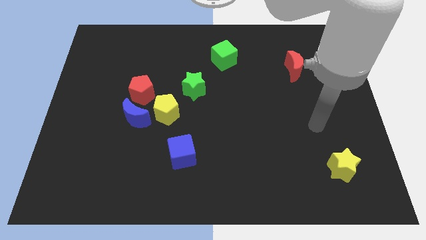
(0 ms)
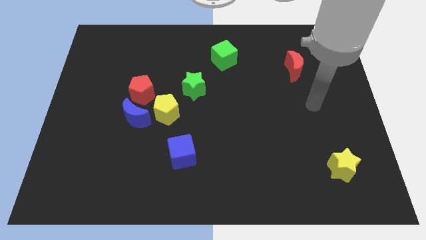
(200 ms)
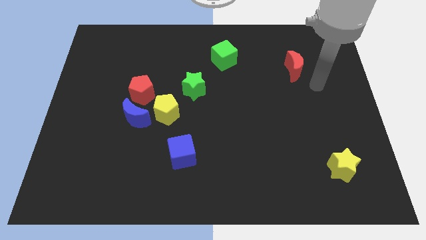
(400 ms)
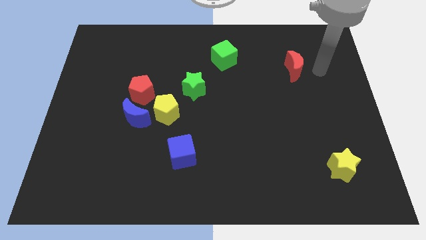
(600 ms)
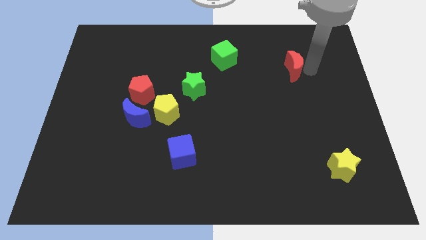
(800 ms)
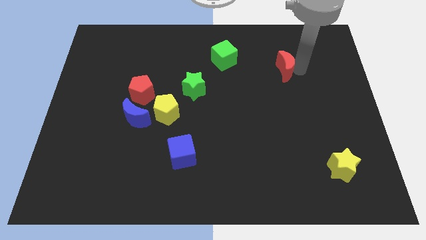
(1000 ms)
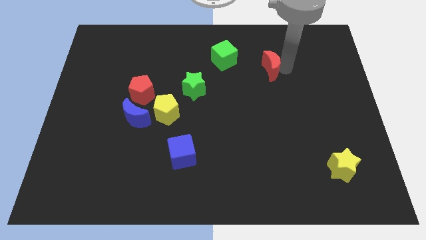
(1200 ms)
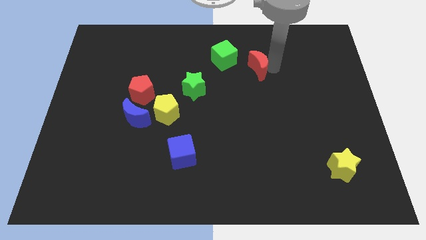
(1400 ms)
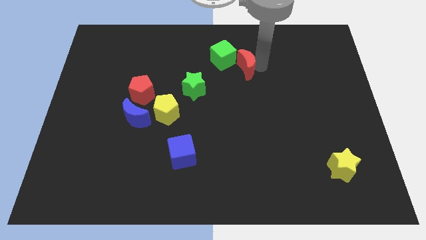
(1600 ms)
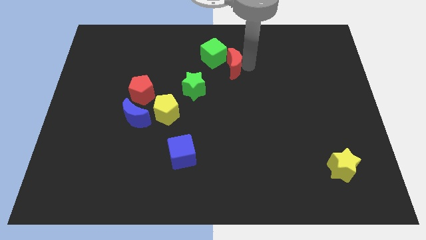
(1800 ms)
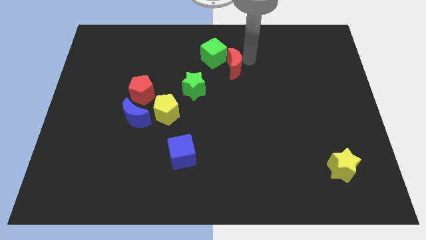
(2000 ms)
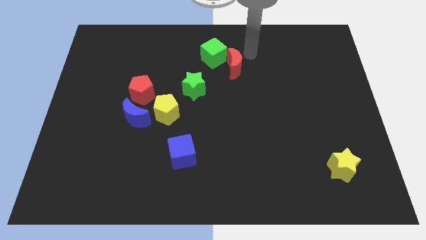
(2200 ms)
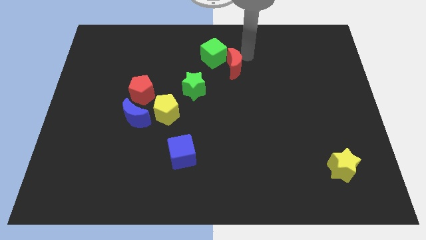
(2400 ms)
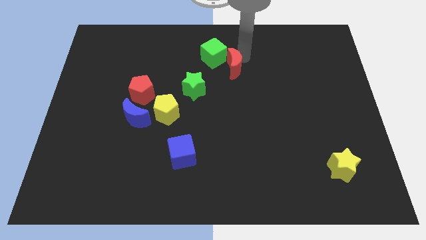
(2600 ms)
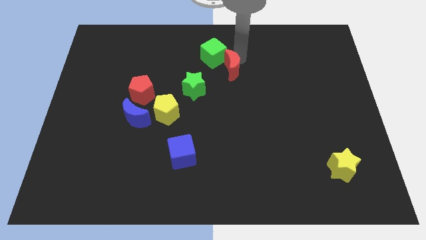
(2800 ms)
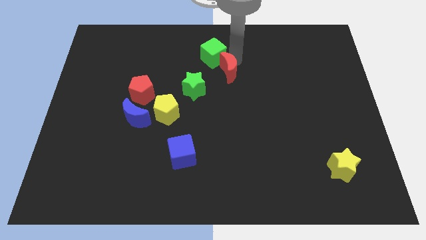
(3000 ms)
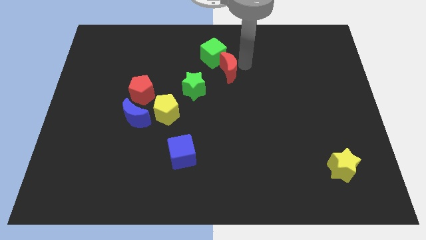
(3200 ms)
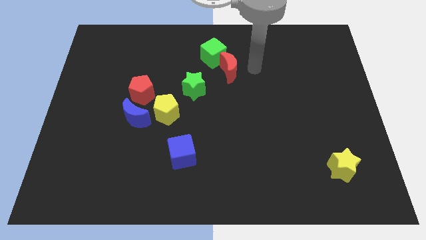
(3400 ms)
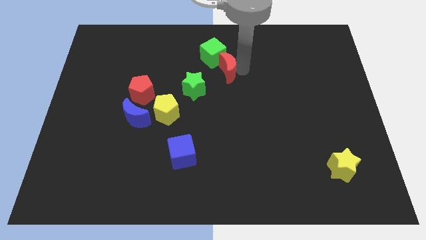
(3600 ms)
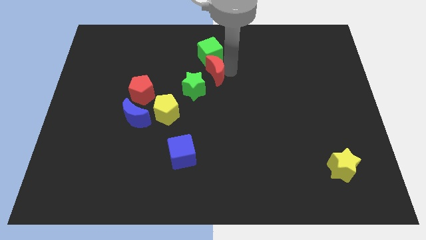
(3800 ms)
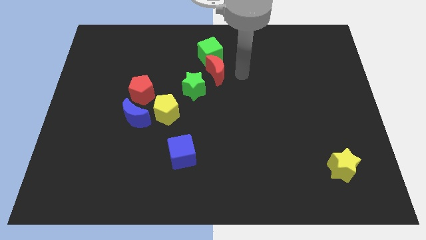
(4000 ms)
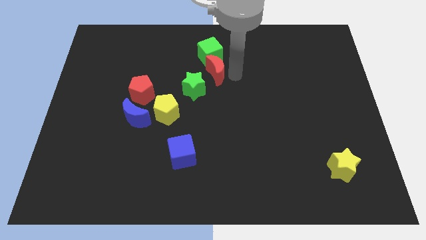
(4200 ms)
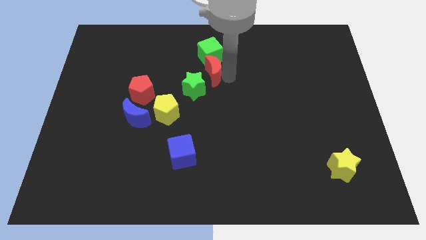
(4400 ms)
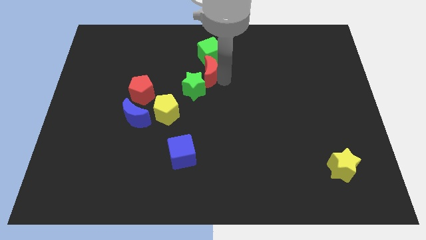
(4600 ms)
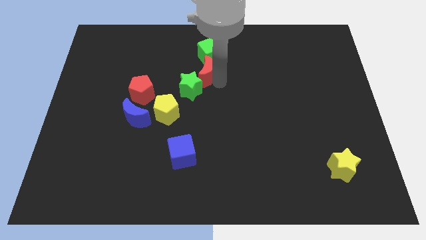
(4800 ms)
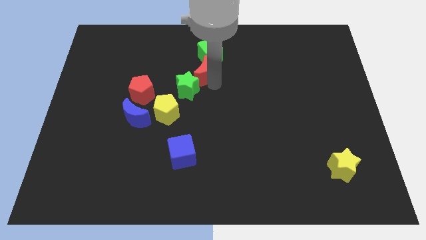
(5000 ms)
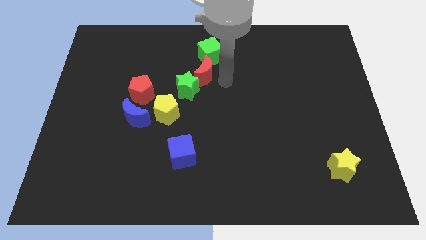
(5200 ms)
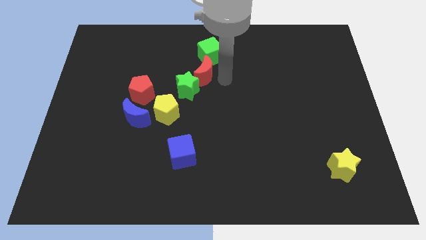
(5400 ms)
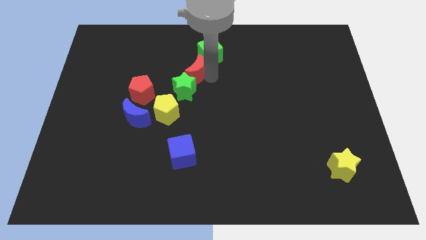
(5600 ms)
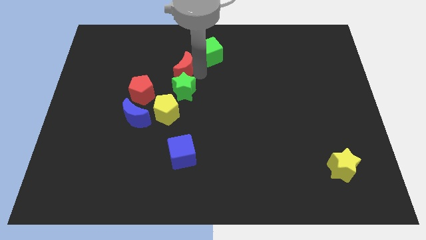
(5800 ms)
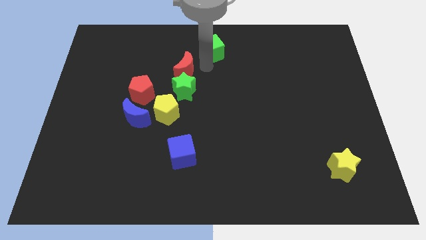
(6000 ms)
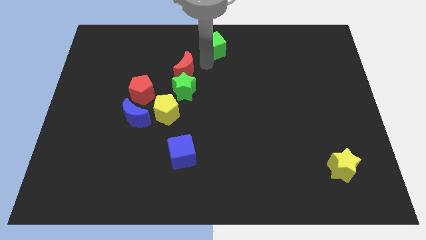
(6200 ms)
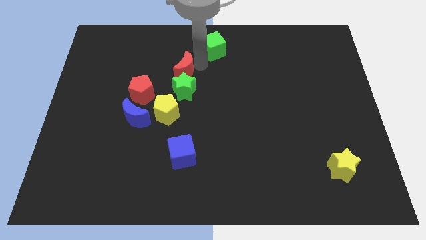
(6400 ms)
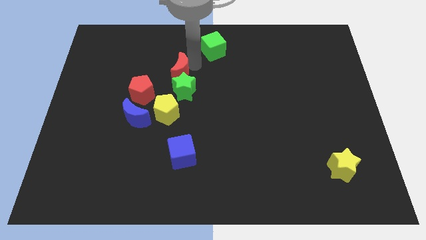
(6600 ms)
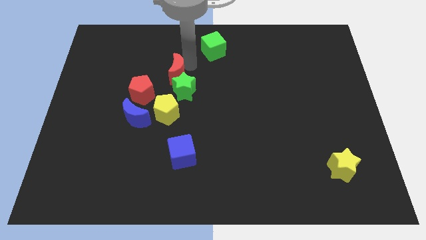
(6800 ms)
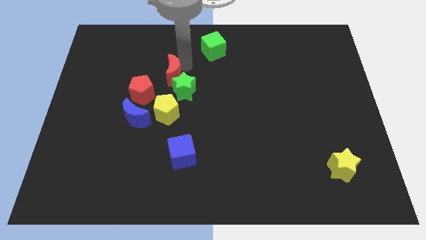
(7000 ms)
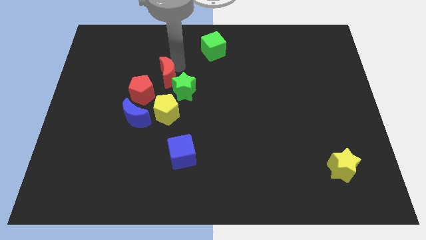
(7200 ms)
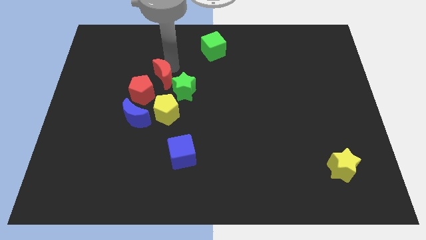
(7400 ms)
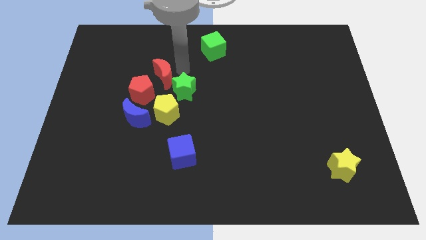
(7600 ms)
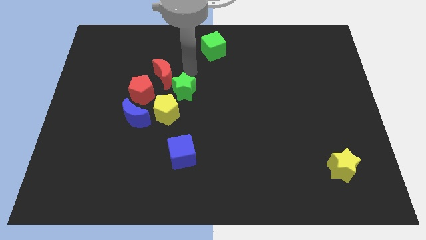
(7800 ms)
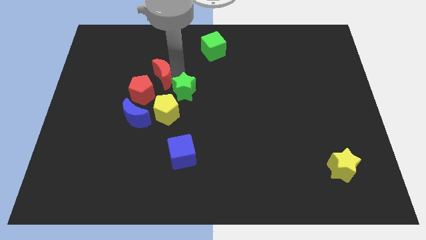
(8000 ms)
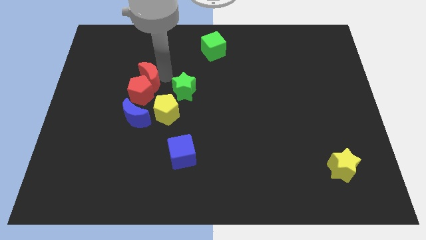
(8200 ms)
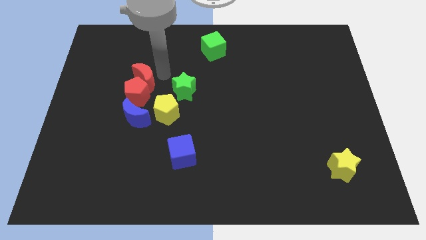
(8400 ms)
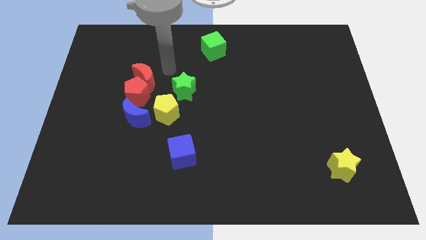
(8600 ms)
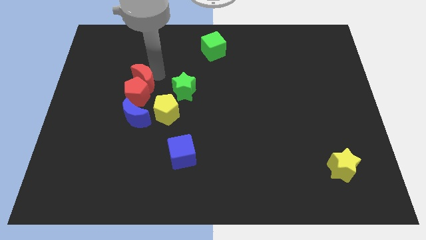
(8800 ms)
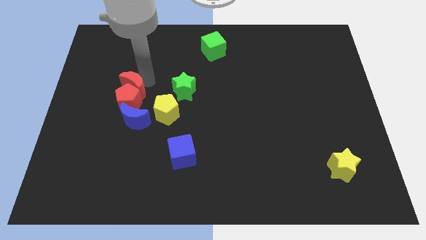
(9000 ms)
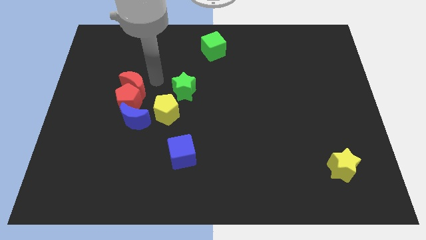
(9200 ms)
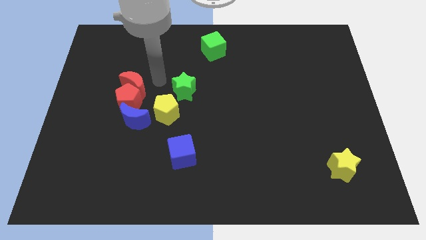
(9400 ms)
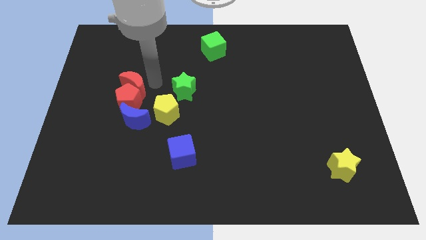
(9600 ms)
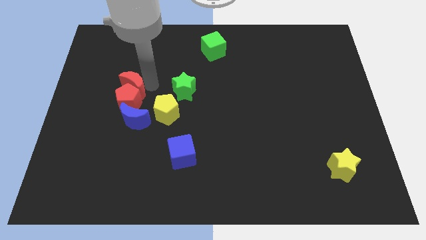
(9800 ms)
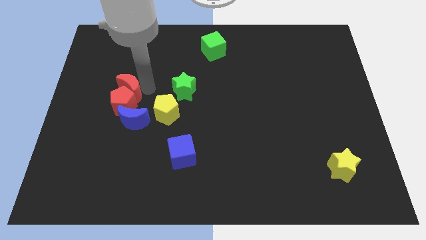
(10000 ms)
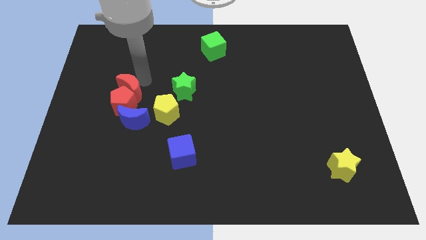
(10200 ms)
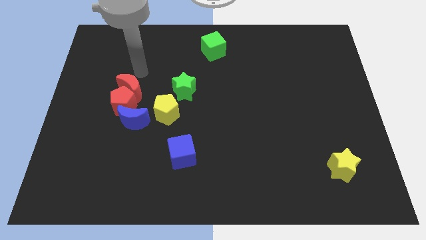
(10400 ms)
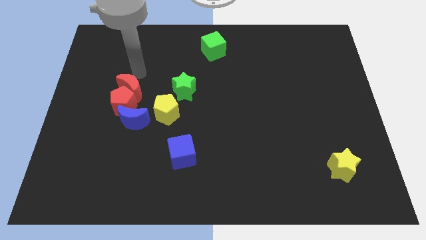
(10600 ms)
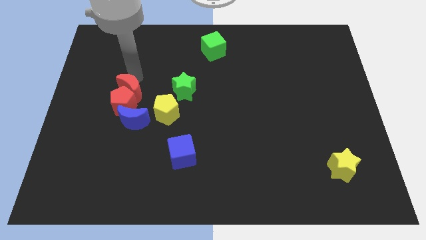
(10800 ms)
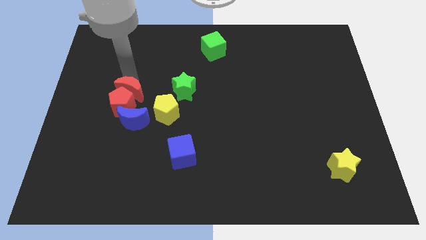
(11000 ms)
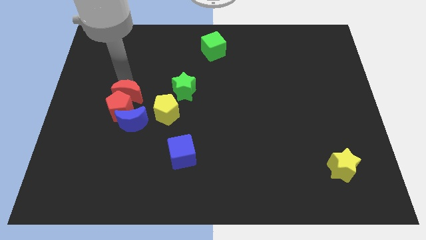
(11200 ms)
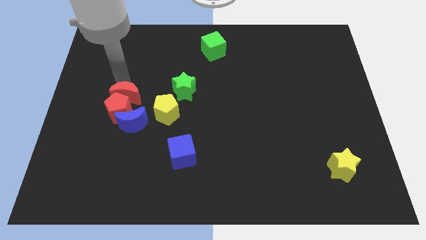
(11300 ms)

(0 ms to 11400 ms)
move the red moon just left of the yellow pentagon
